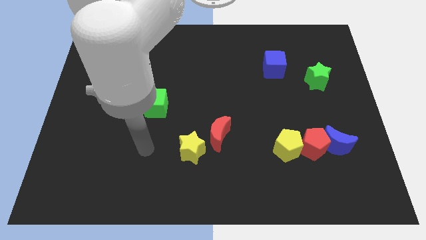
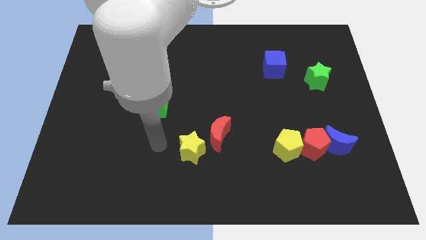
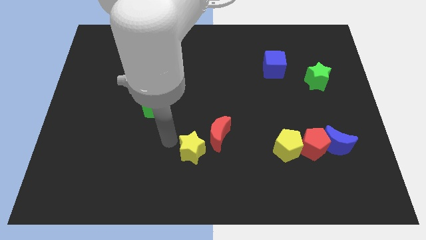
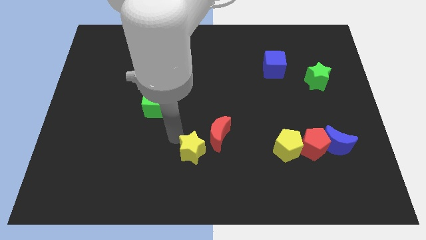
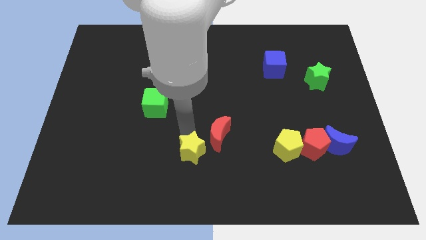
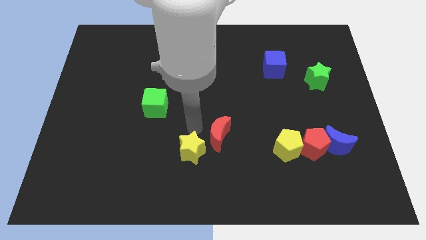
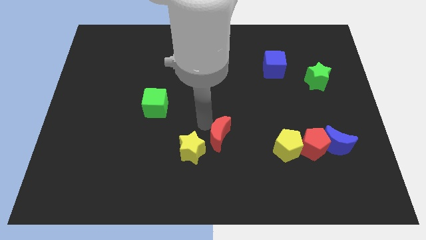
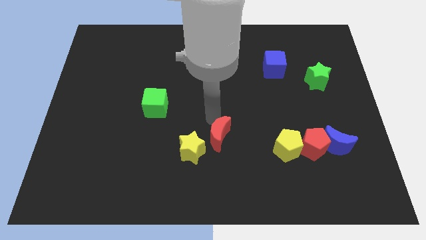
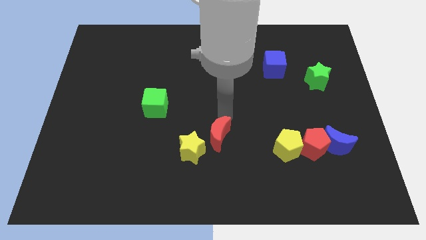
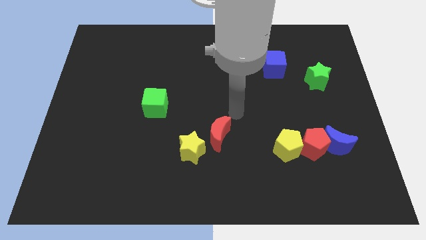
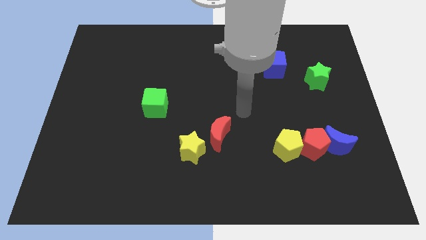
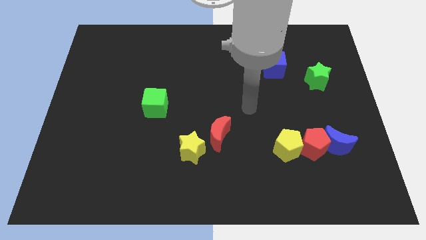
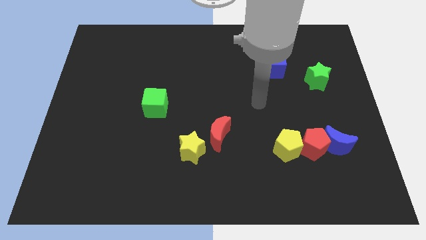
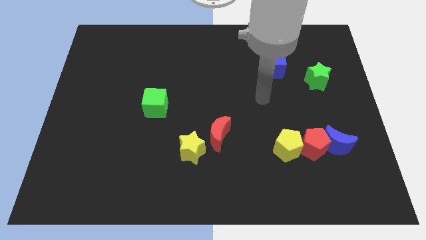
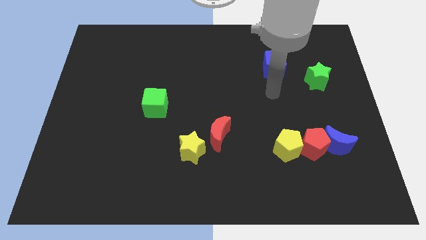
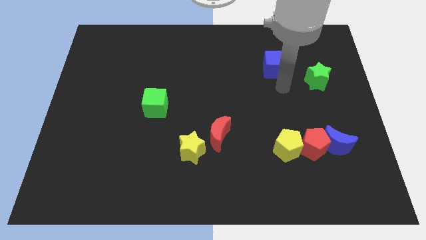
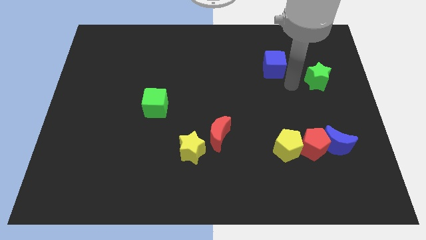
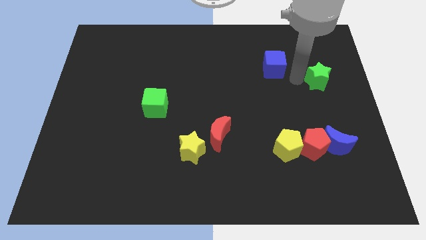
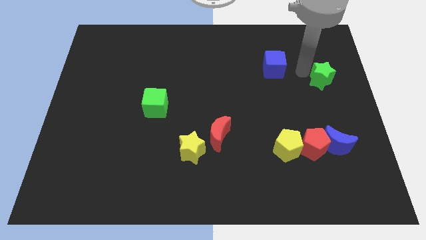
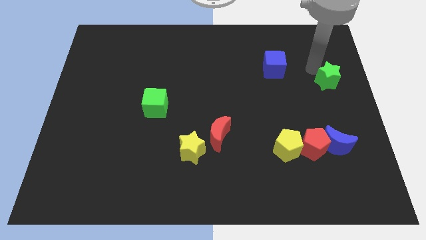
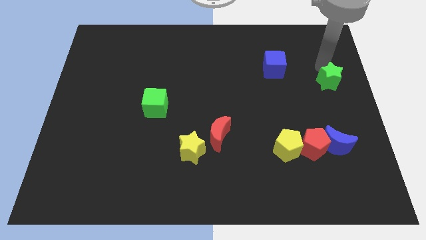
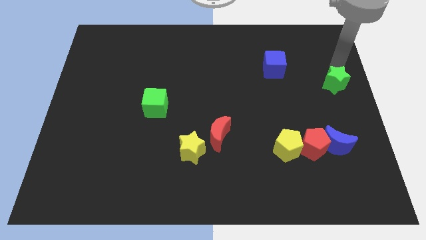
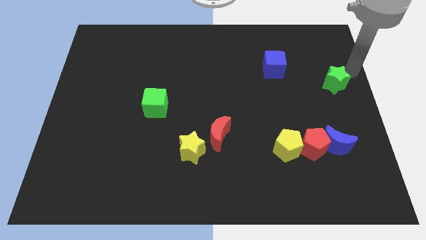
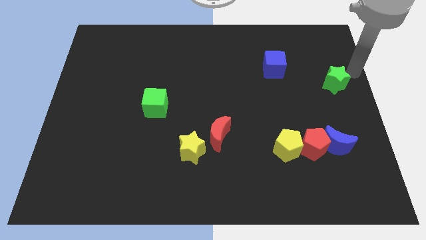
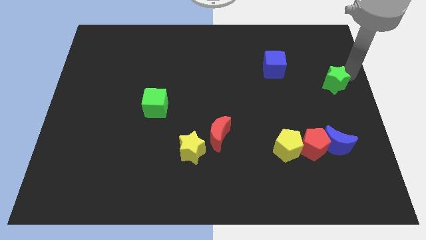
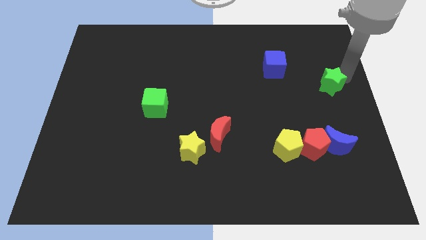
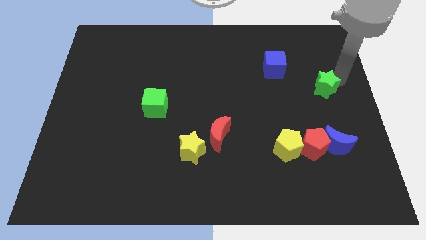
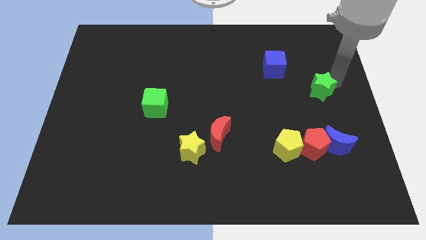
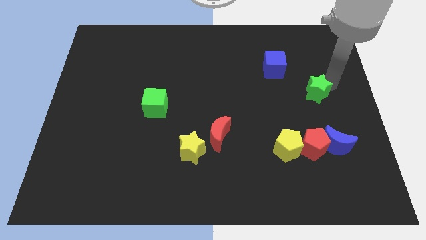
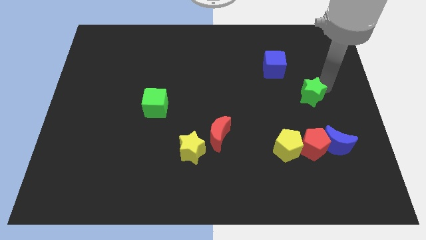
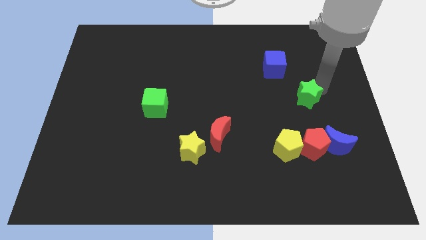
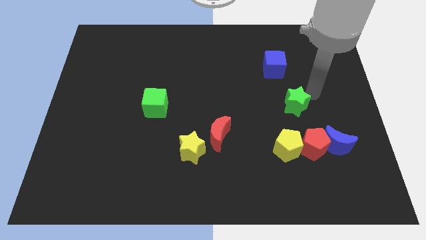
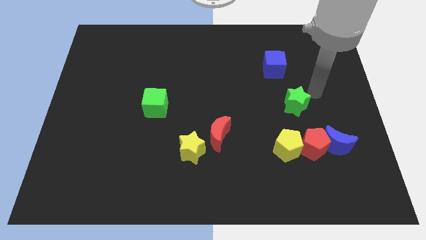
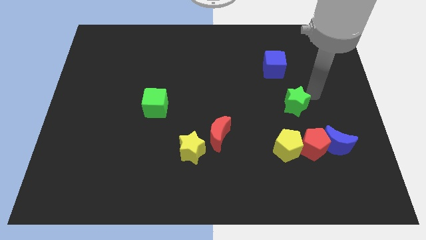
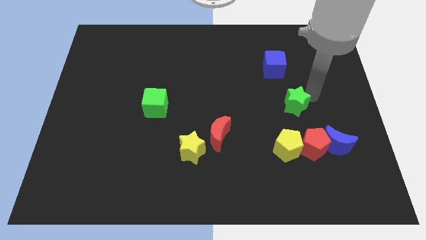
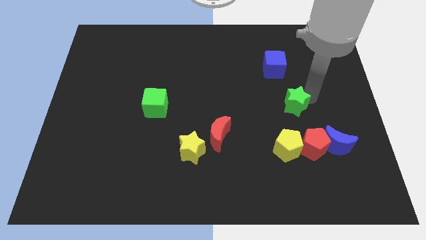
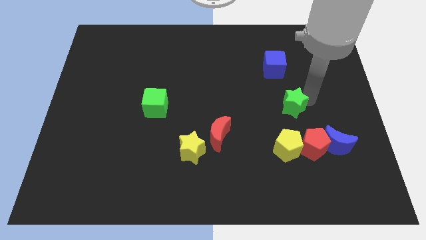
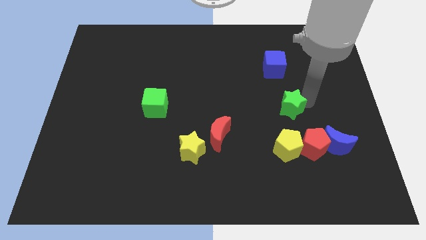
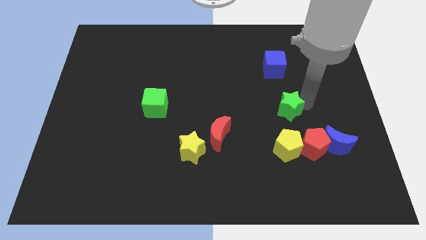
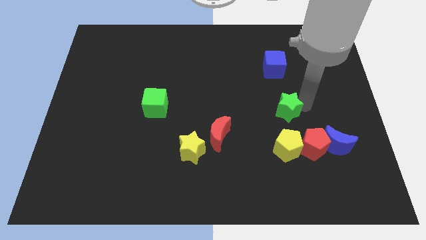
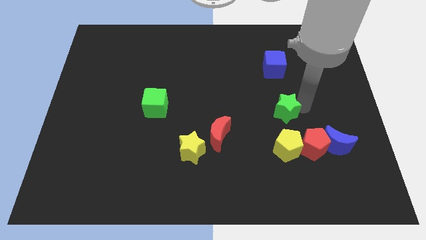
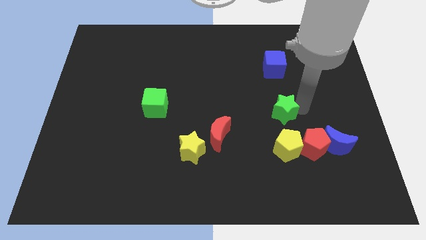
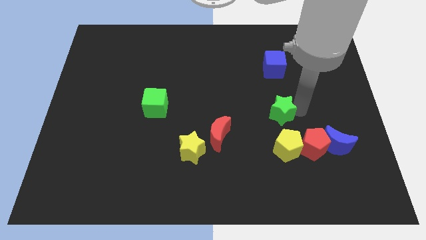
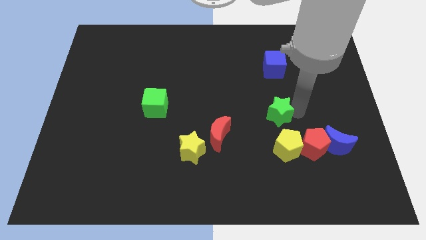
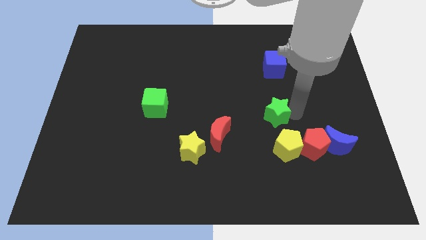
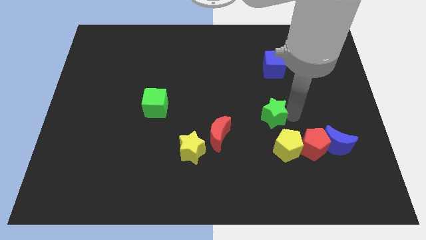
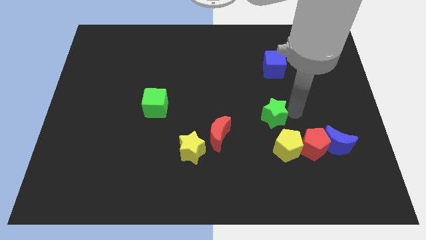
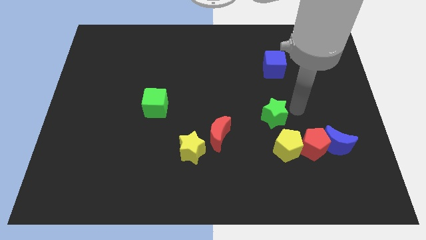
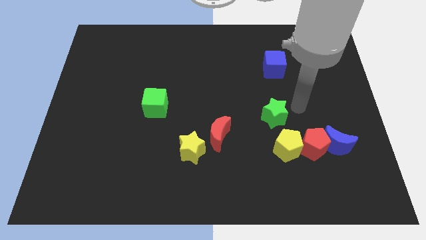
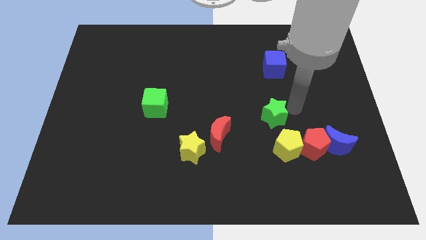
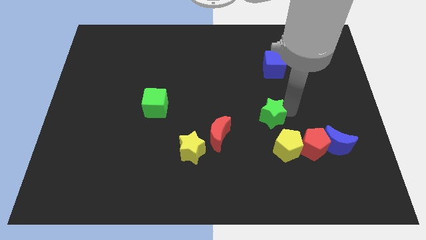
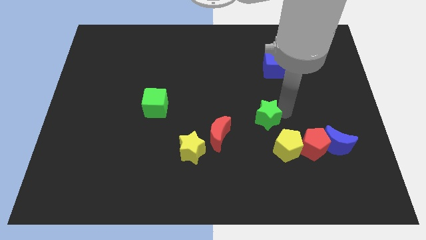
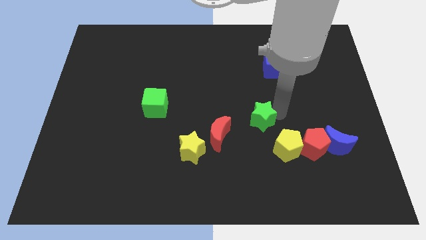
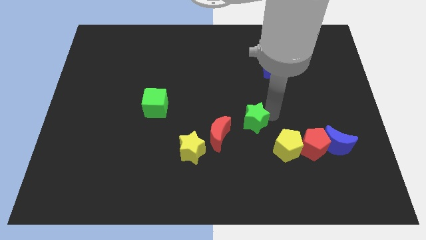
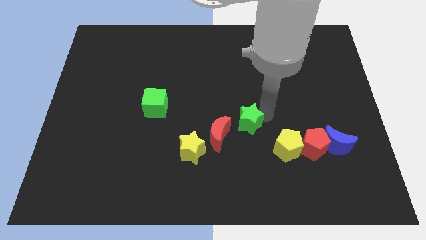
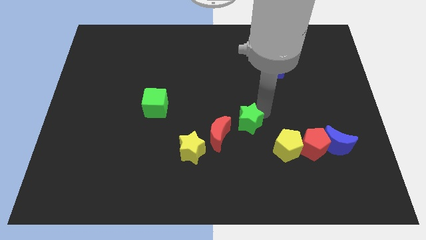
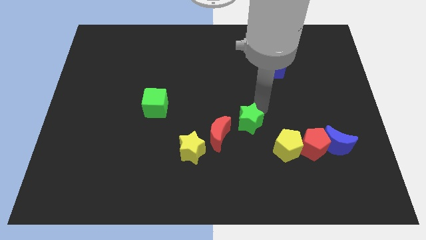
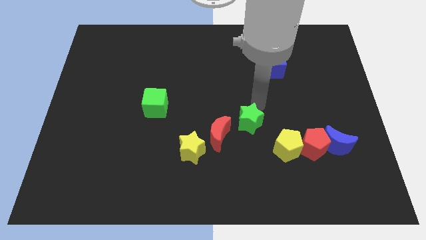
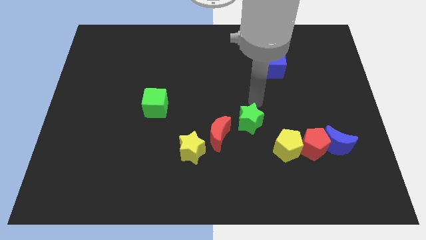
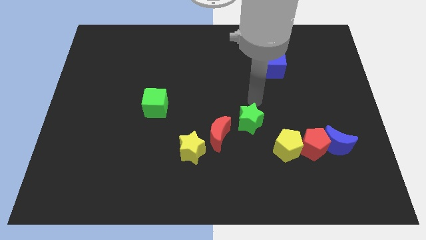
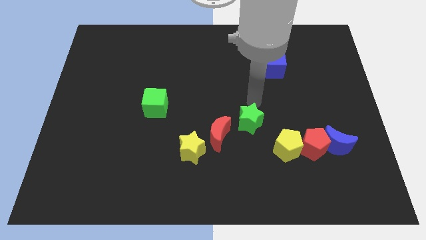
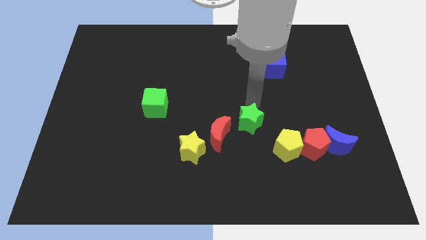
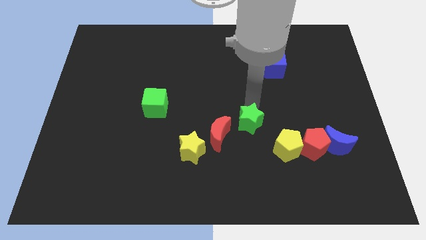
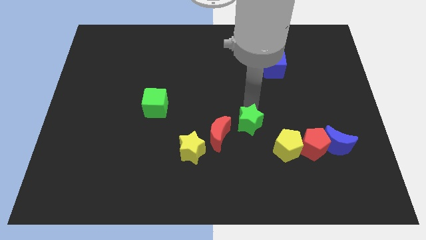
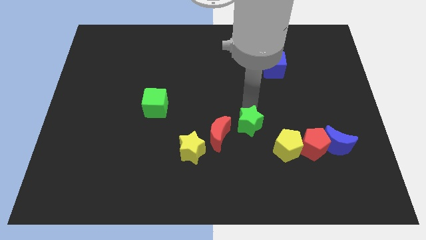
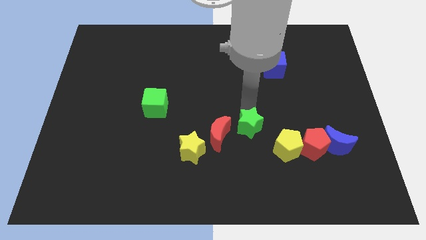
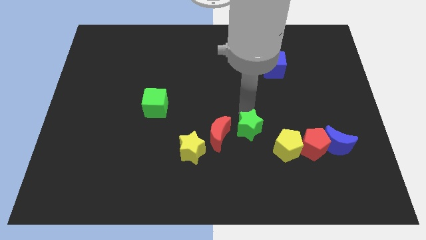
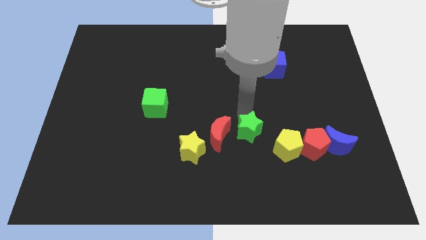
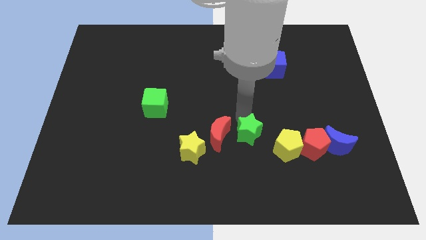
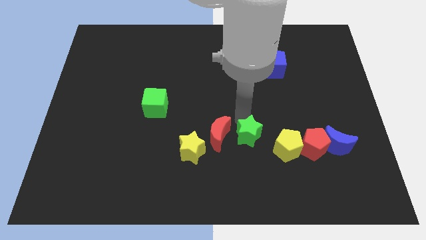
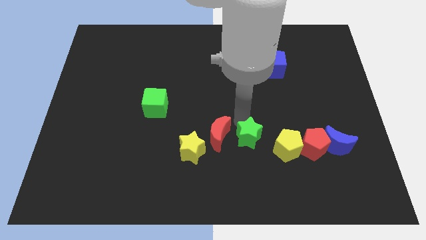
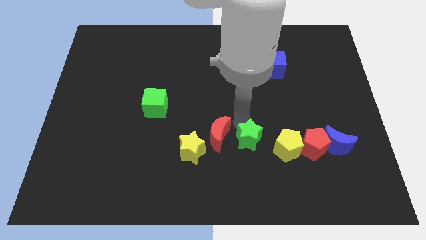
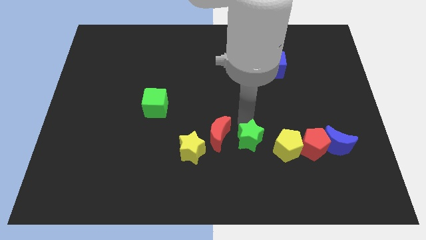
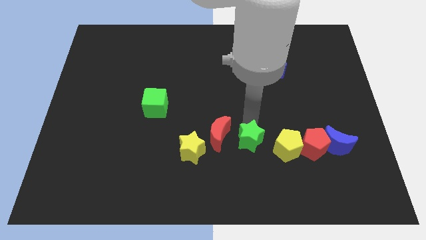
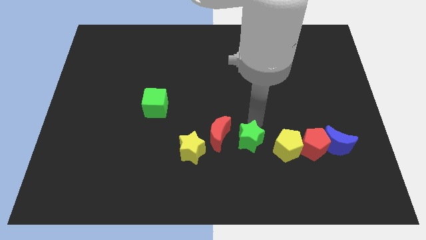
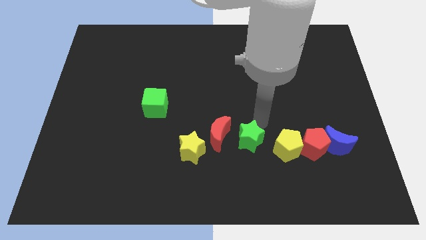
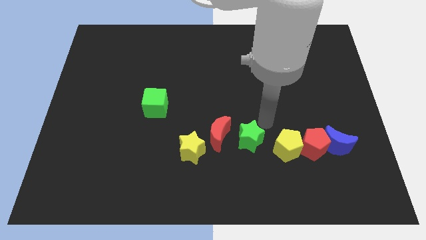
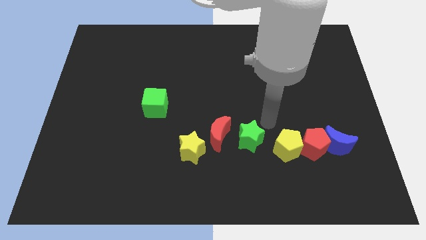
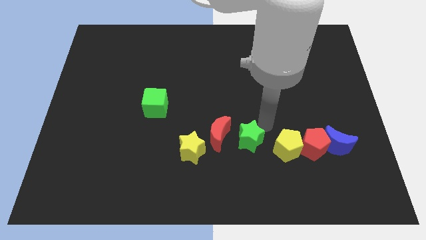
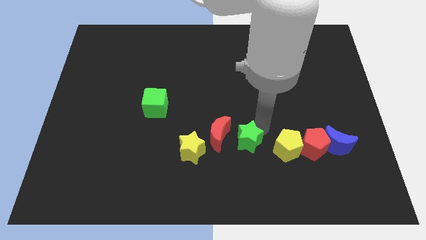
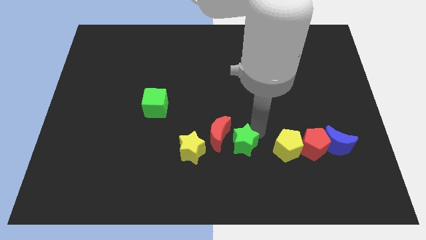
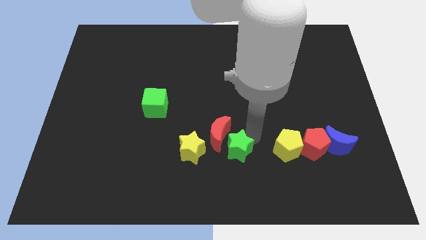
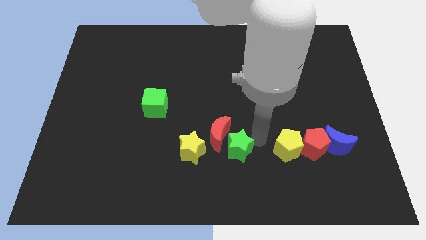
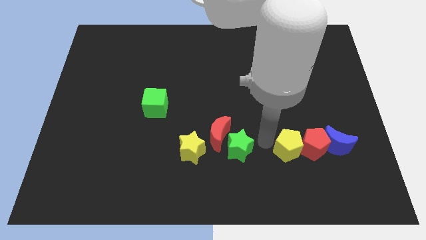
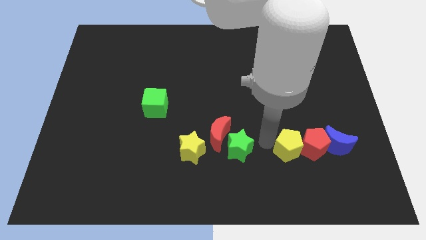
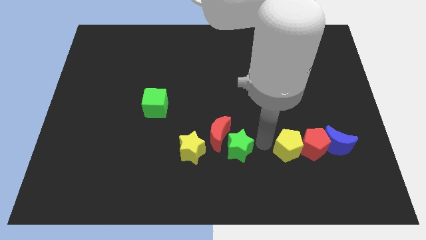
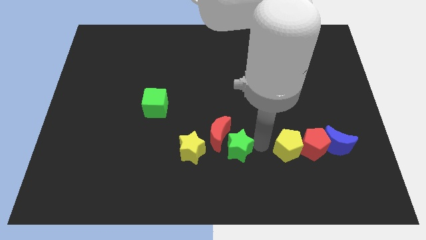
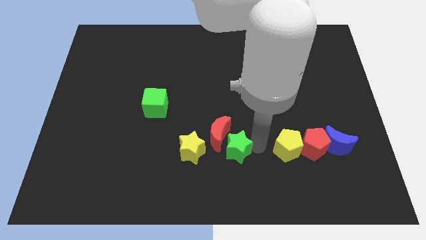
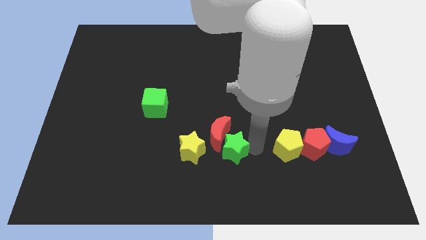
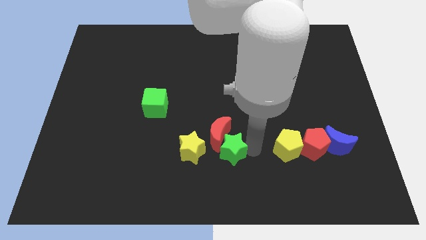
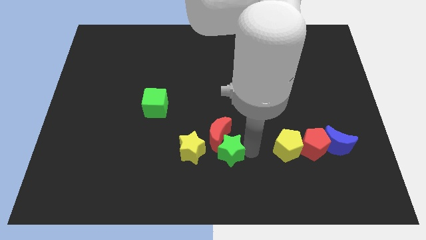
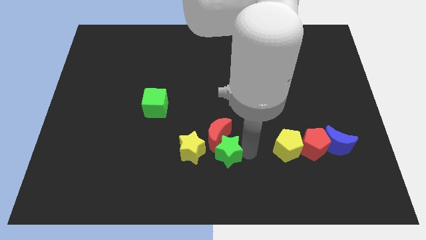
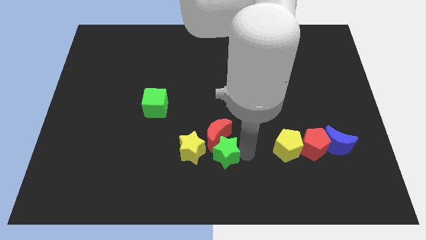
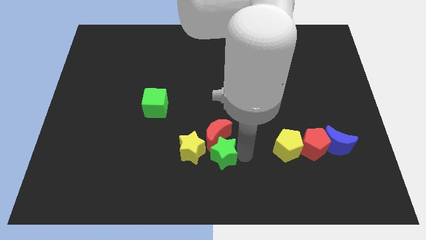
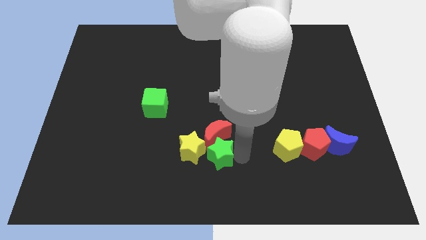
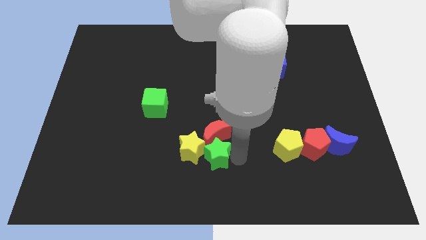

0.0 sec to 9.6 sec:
put the green star towards the yellow star
